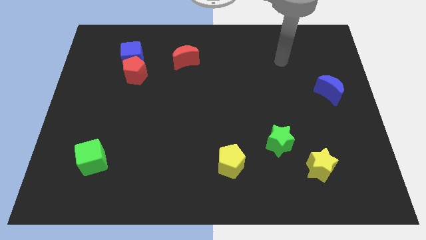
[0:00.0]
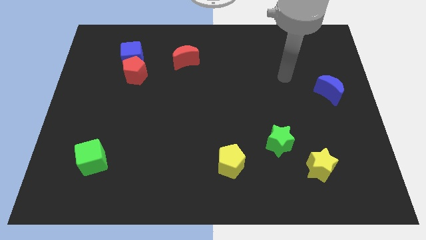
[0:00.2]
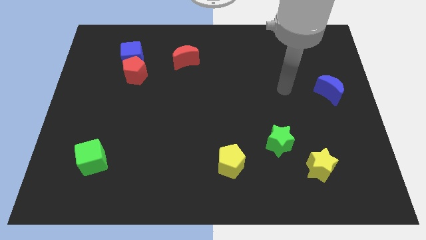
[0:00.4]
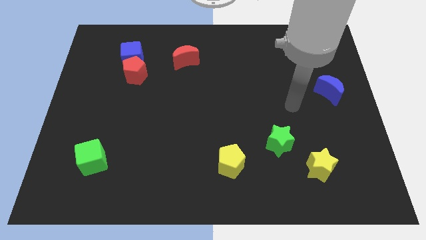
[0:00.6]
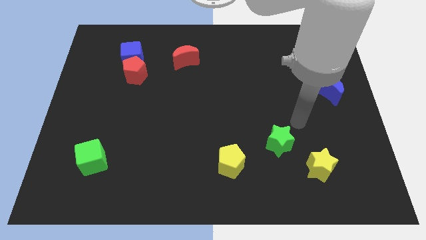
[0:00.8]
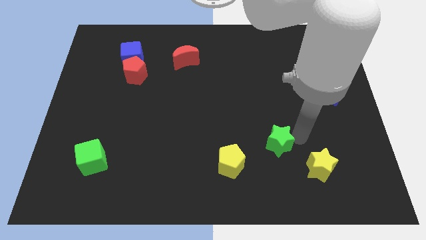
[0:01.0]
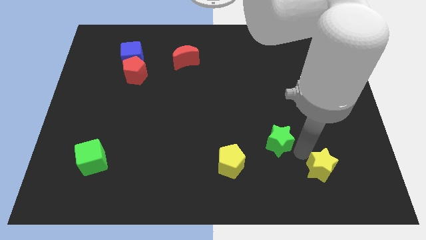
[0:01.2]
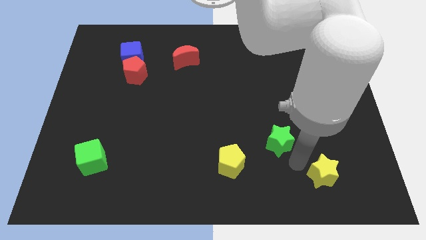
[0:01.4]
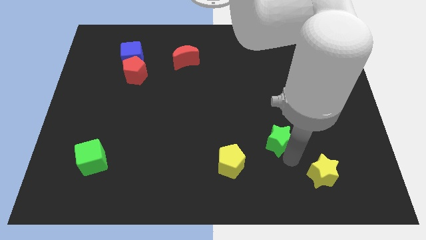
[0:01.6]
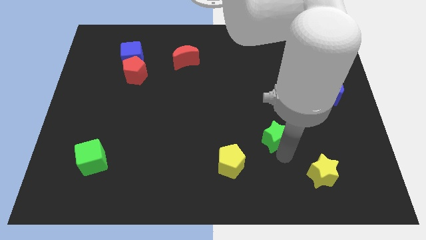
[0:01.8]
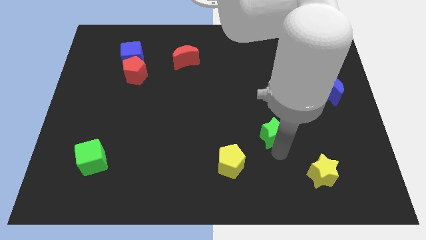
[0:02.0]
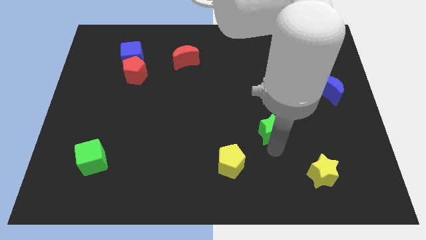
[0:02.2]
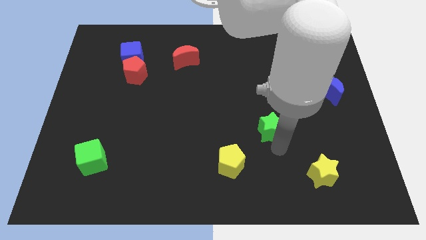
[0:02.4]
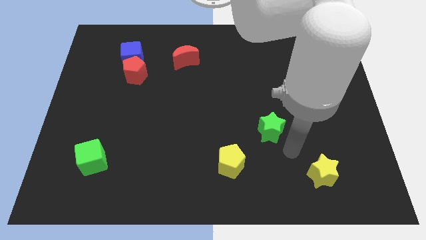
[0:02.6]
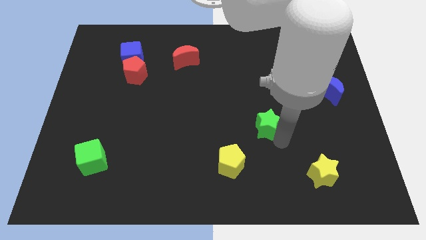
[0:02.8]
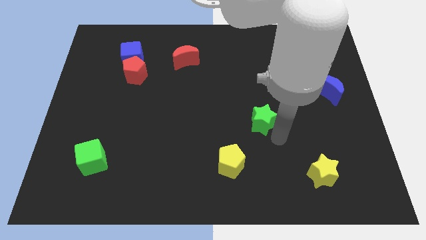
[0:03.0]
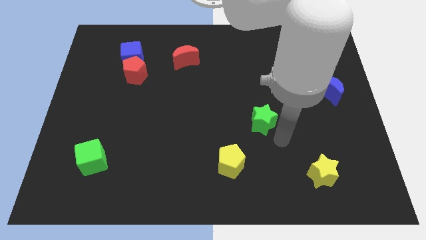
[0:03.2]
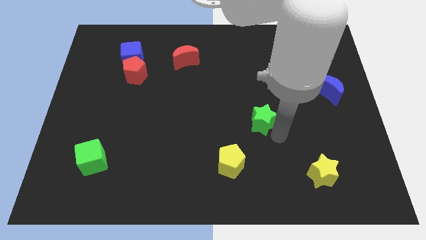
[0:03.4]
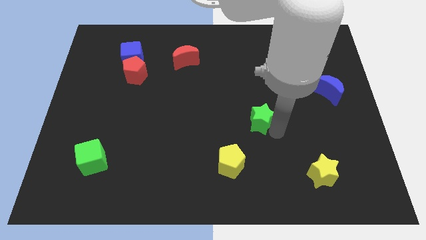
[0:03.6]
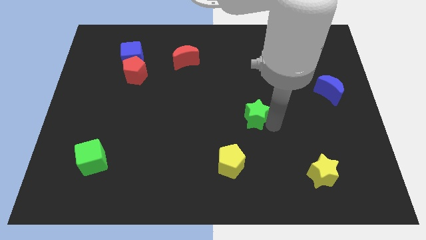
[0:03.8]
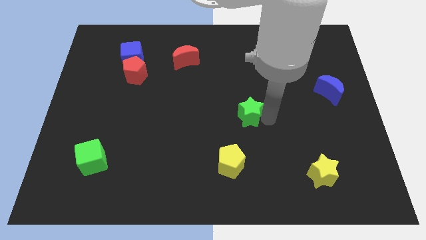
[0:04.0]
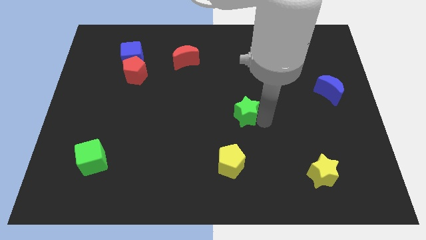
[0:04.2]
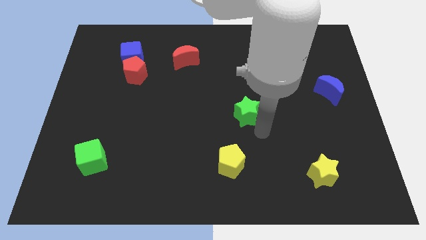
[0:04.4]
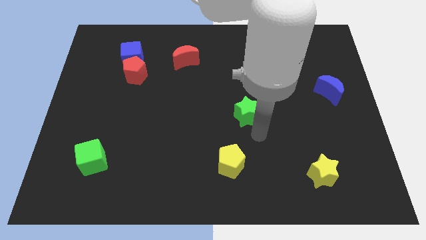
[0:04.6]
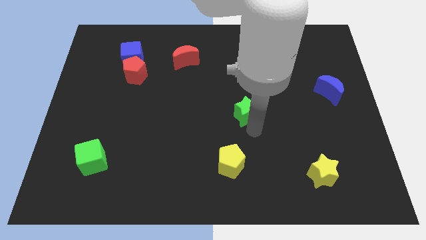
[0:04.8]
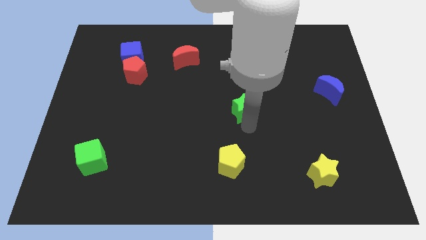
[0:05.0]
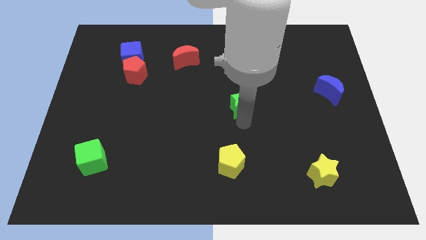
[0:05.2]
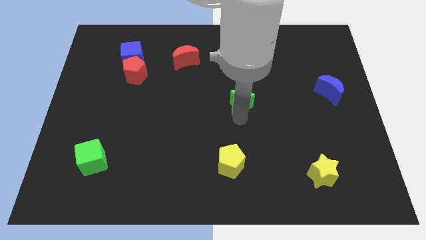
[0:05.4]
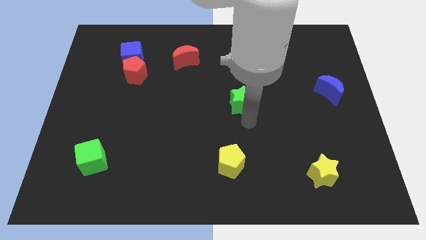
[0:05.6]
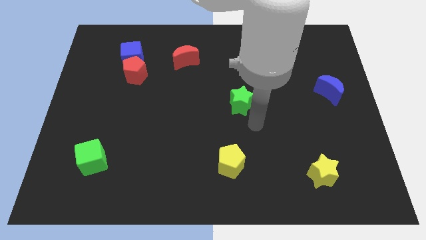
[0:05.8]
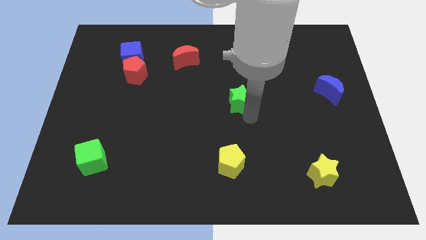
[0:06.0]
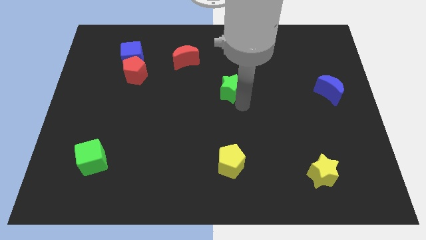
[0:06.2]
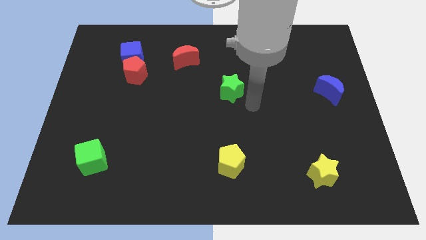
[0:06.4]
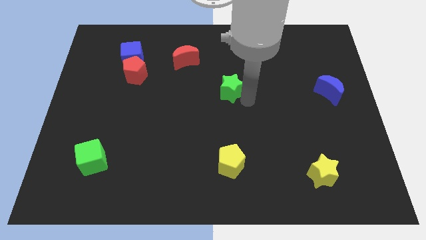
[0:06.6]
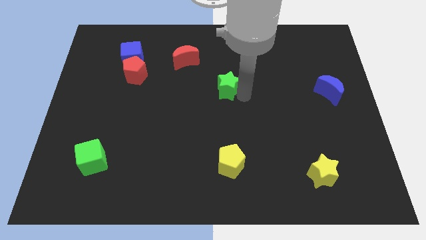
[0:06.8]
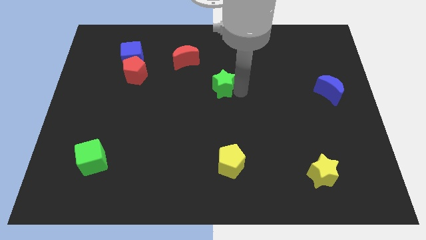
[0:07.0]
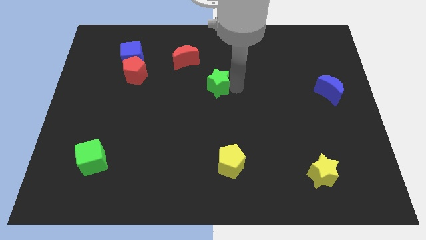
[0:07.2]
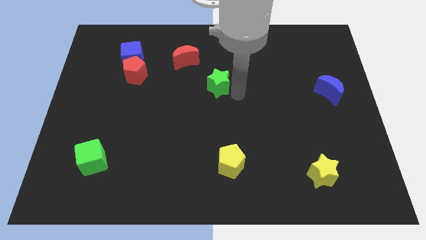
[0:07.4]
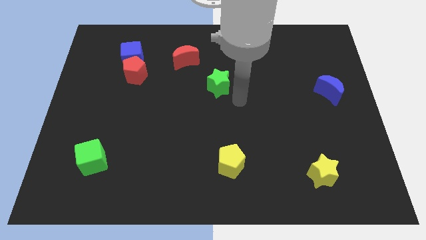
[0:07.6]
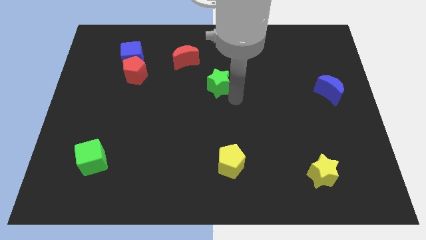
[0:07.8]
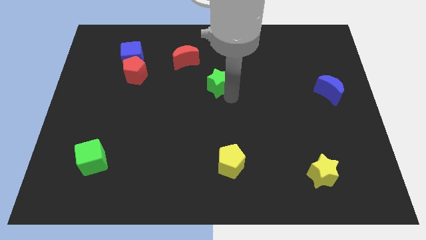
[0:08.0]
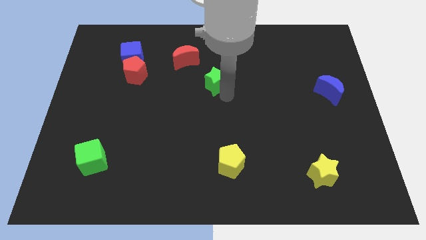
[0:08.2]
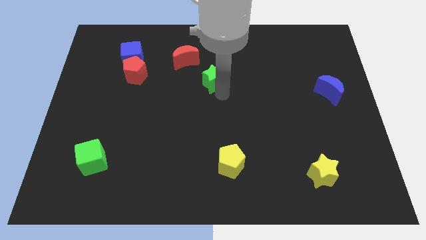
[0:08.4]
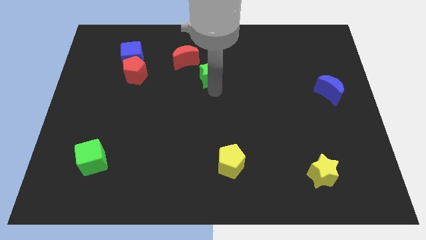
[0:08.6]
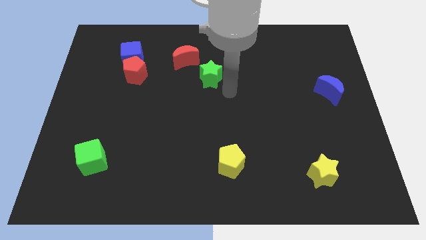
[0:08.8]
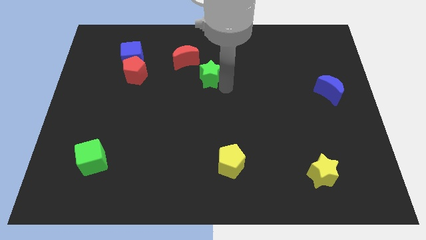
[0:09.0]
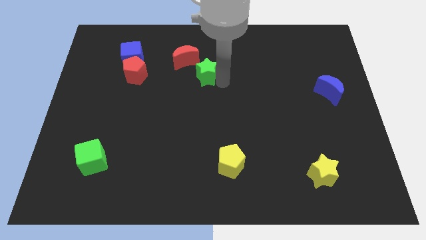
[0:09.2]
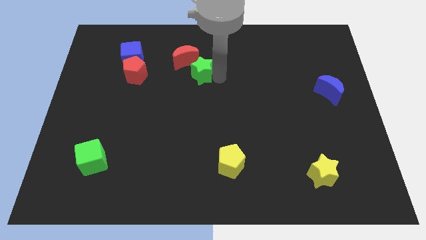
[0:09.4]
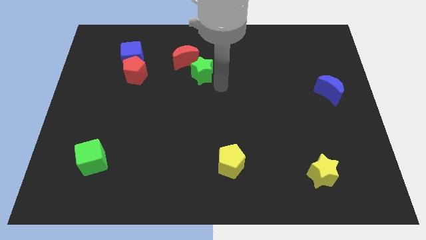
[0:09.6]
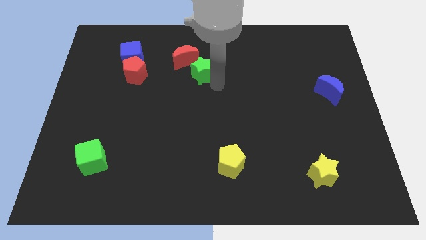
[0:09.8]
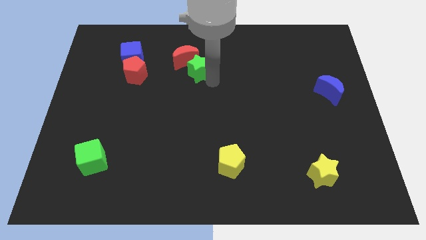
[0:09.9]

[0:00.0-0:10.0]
move the green star towards the red moon

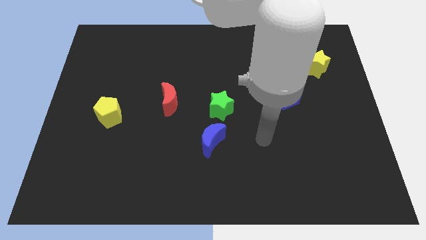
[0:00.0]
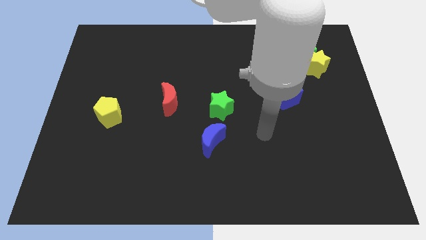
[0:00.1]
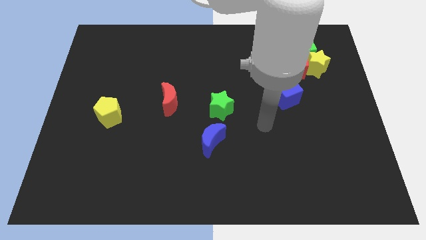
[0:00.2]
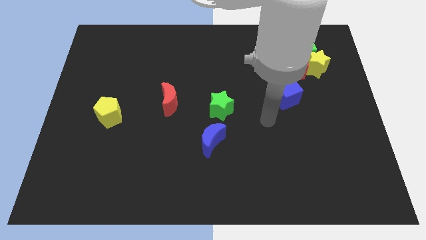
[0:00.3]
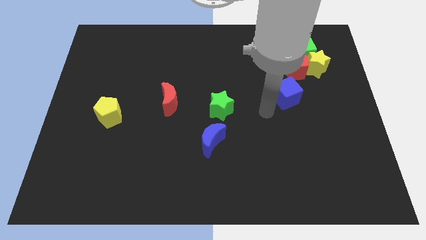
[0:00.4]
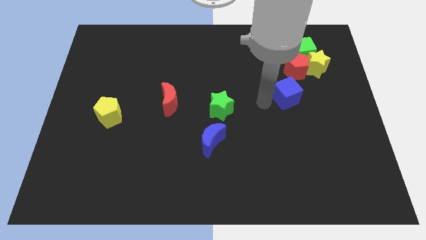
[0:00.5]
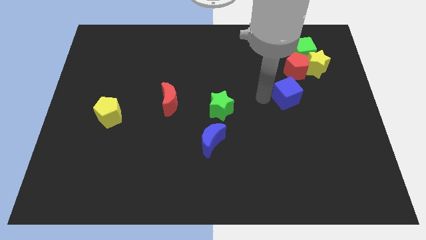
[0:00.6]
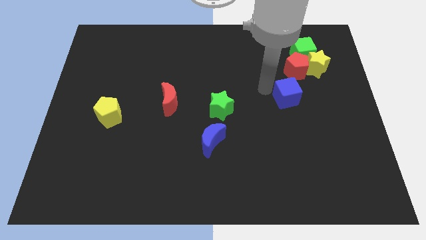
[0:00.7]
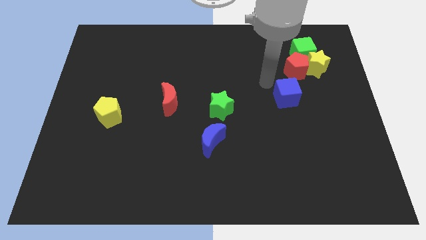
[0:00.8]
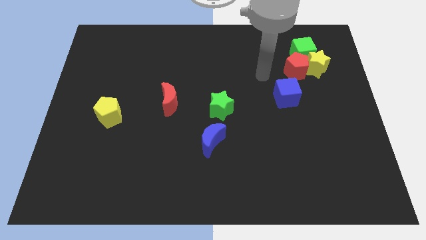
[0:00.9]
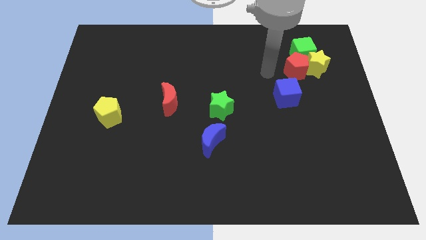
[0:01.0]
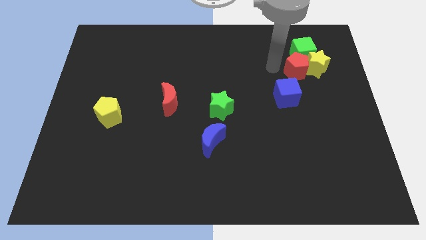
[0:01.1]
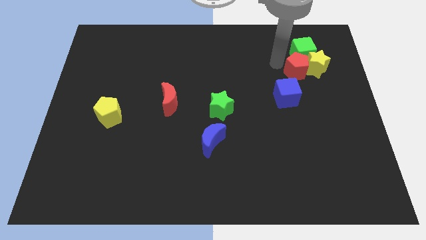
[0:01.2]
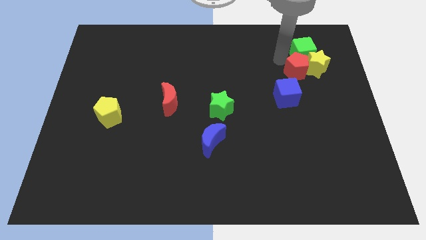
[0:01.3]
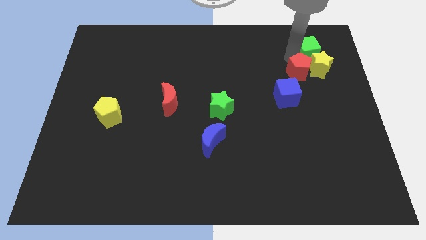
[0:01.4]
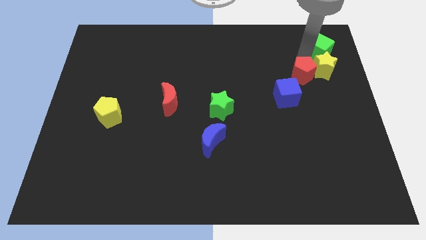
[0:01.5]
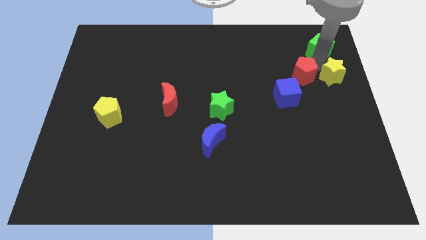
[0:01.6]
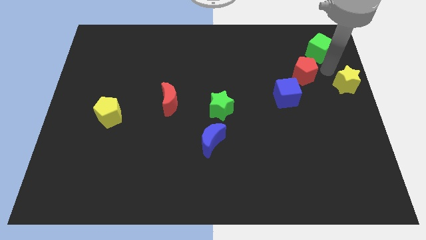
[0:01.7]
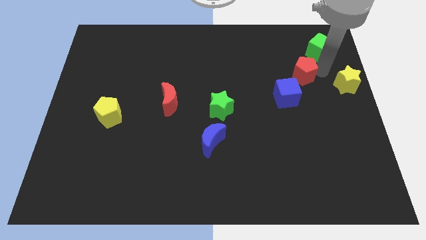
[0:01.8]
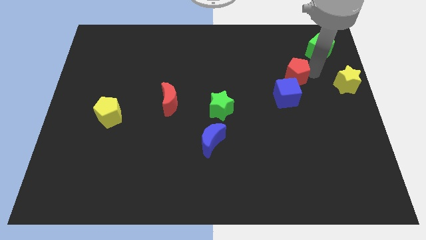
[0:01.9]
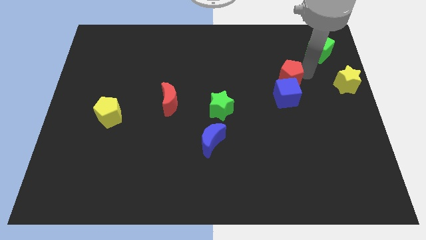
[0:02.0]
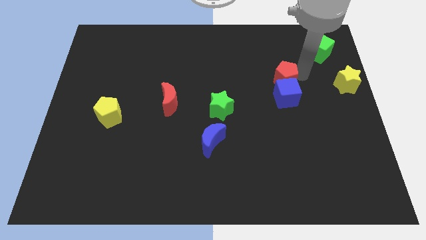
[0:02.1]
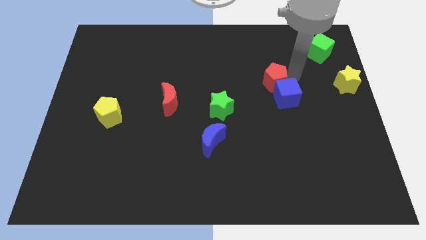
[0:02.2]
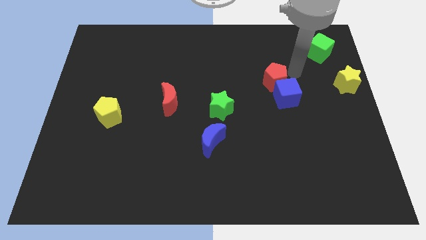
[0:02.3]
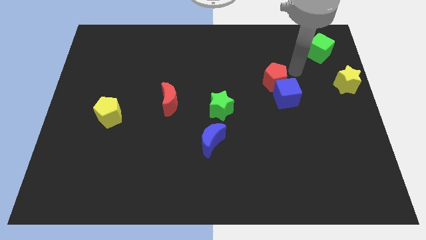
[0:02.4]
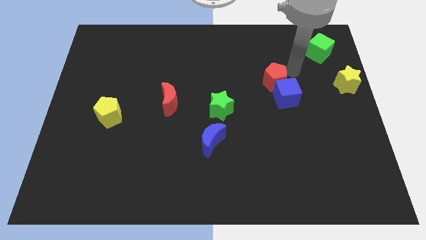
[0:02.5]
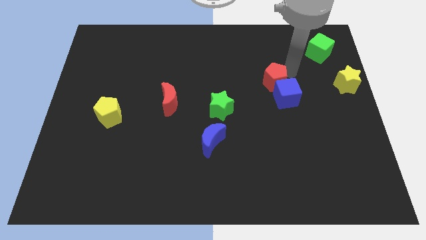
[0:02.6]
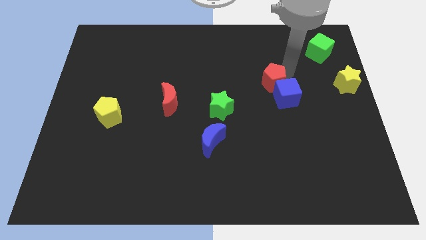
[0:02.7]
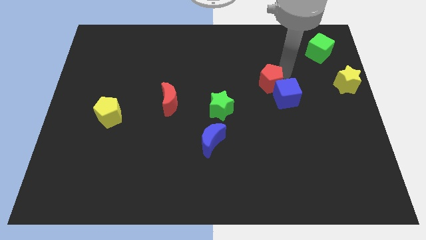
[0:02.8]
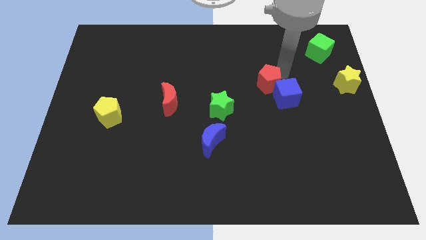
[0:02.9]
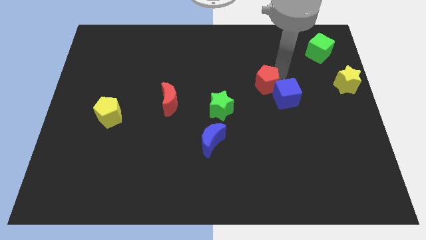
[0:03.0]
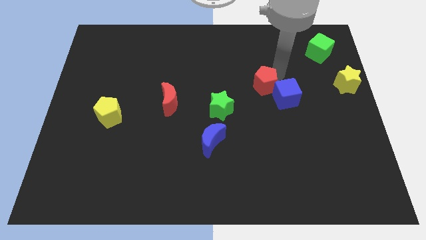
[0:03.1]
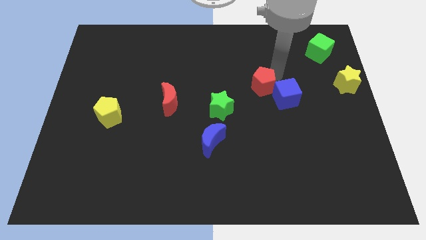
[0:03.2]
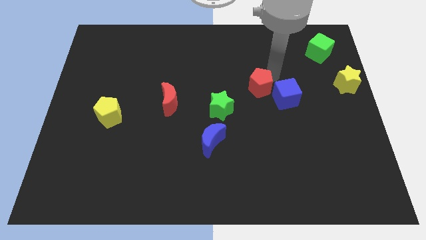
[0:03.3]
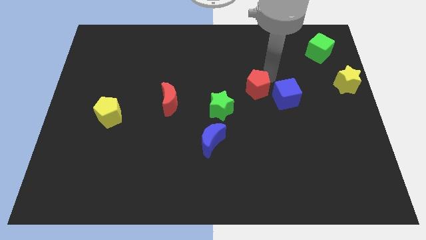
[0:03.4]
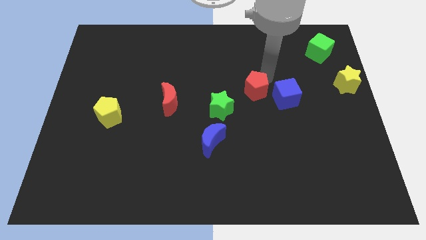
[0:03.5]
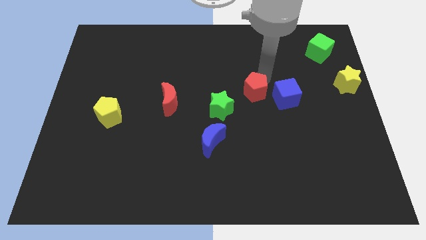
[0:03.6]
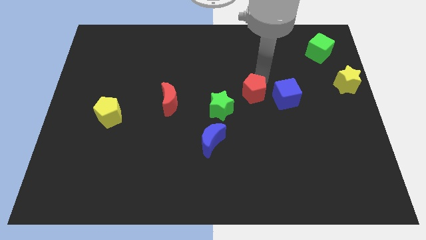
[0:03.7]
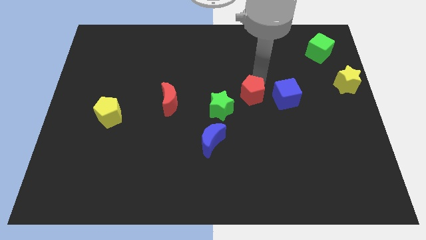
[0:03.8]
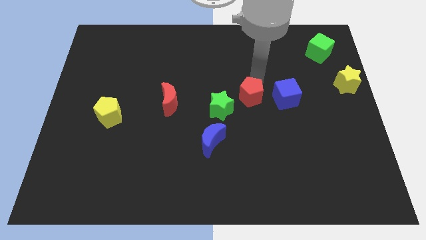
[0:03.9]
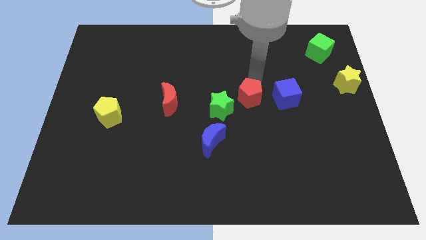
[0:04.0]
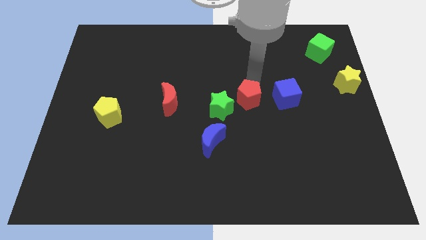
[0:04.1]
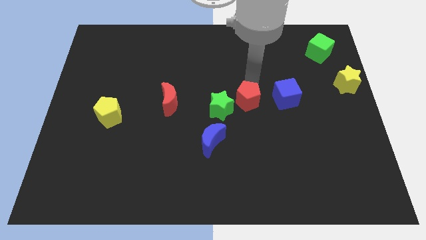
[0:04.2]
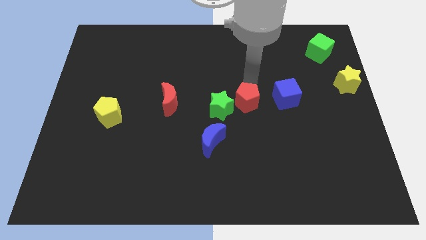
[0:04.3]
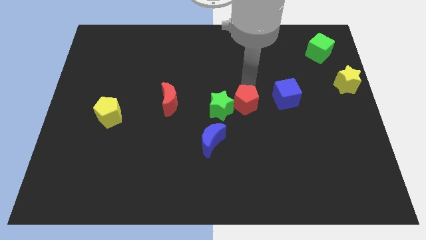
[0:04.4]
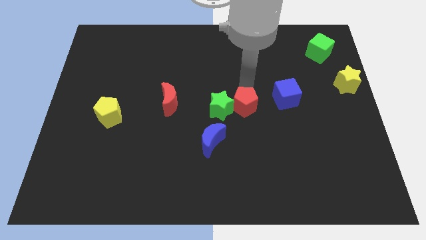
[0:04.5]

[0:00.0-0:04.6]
push the red pentagon next to the green star
